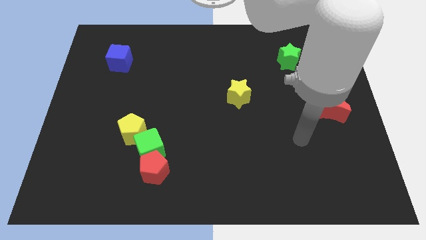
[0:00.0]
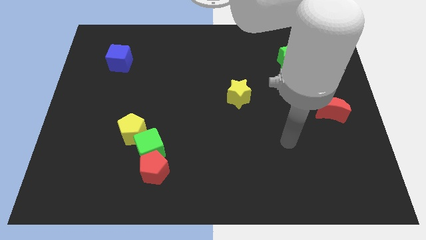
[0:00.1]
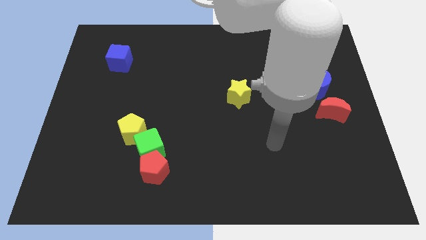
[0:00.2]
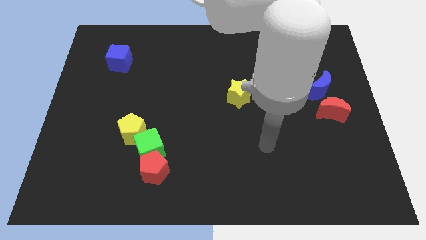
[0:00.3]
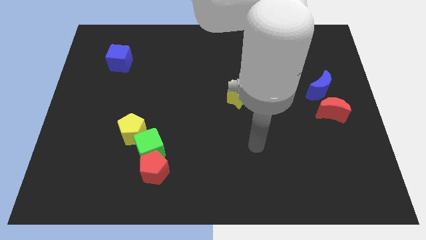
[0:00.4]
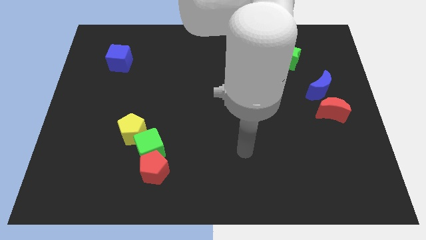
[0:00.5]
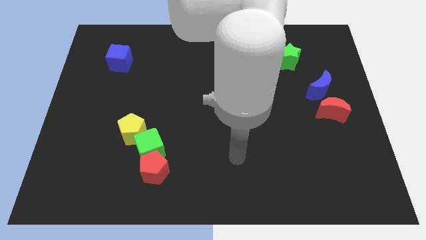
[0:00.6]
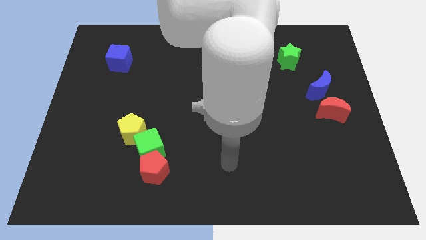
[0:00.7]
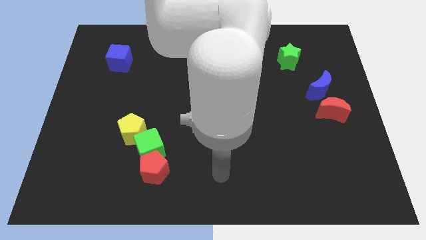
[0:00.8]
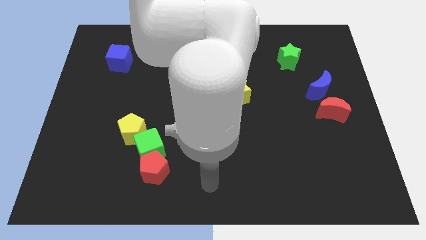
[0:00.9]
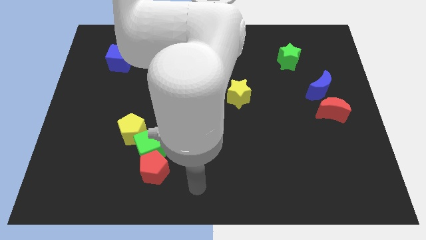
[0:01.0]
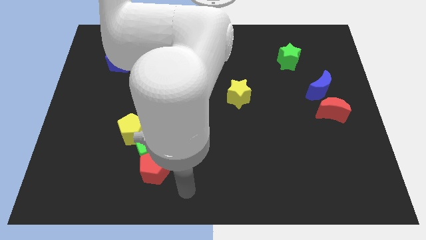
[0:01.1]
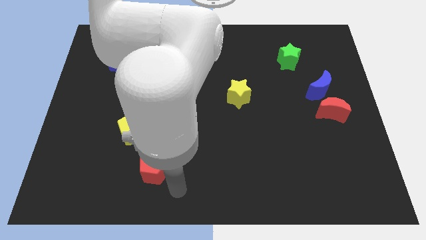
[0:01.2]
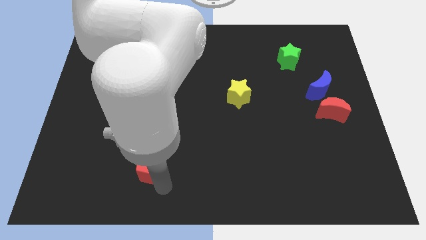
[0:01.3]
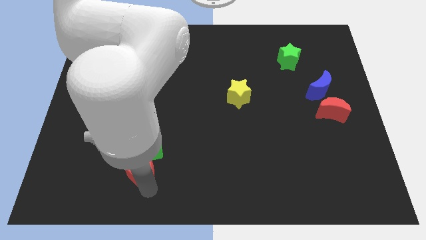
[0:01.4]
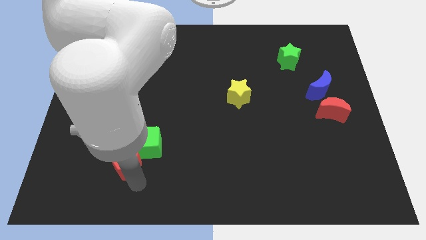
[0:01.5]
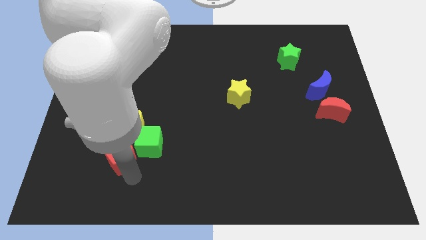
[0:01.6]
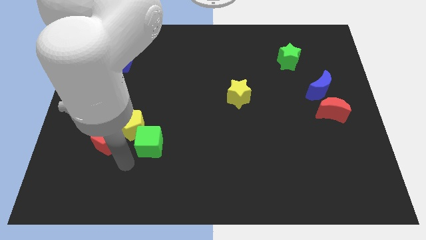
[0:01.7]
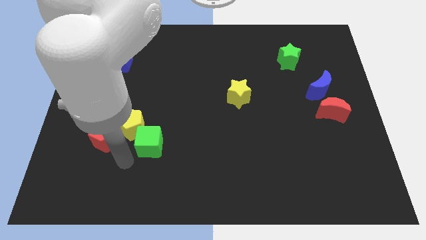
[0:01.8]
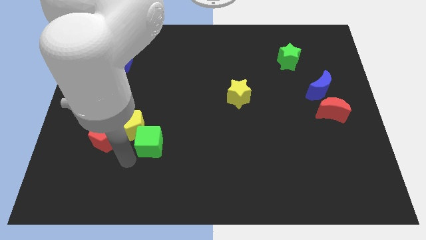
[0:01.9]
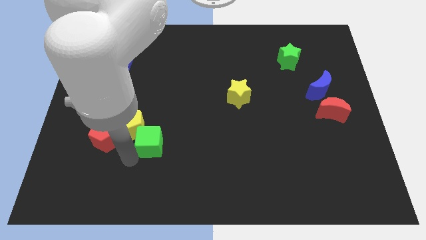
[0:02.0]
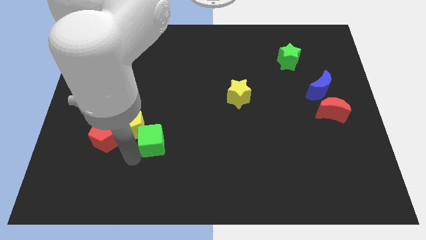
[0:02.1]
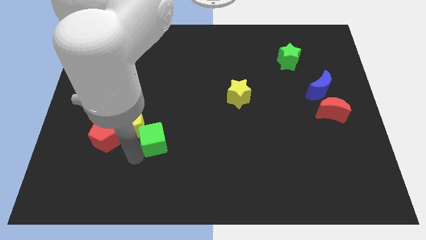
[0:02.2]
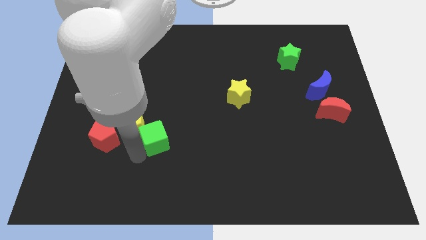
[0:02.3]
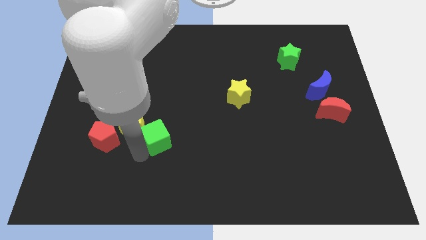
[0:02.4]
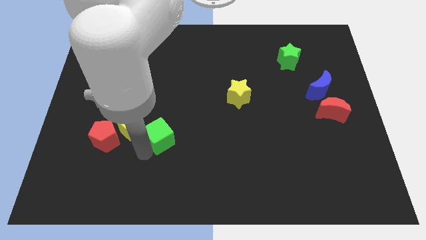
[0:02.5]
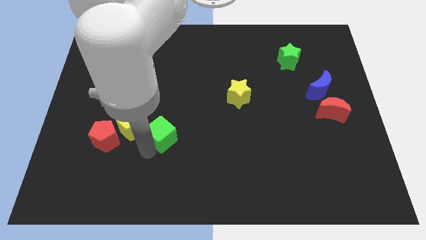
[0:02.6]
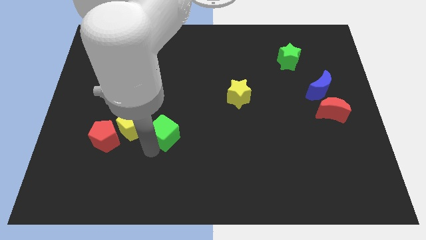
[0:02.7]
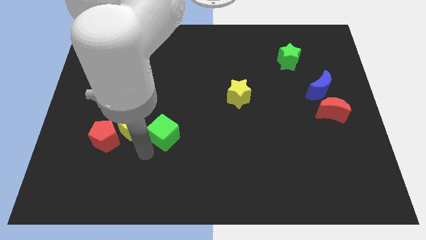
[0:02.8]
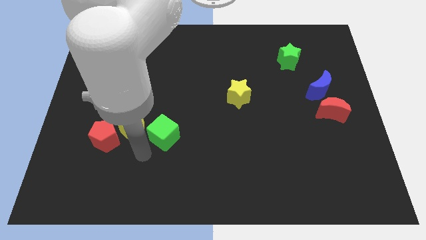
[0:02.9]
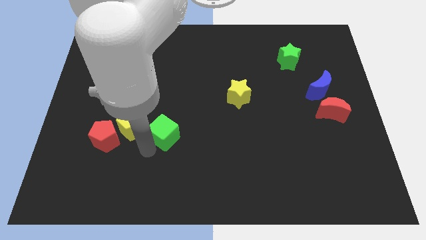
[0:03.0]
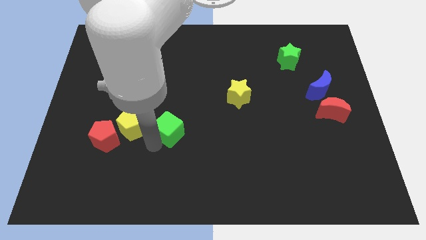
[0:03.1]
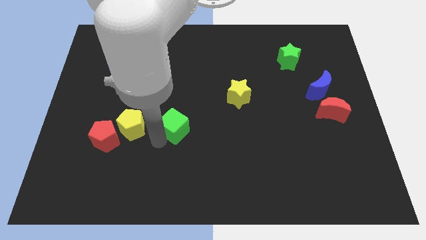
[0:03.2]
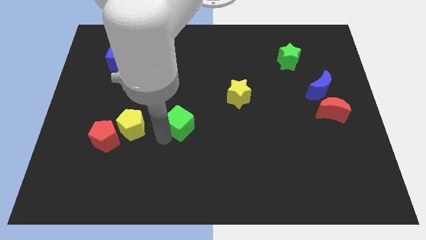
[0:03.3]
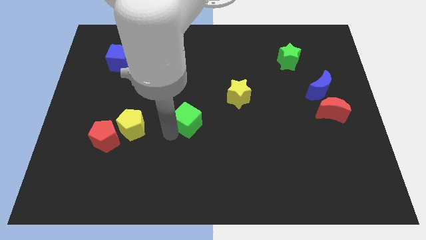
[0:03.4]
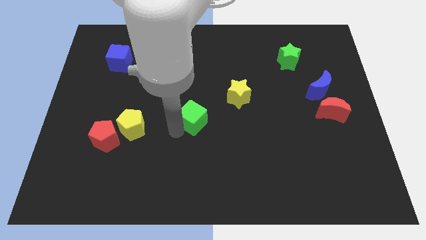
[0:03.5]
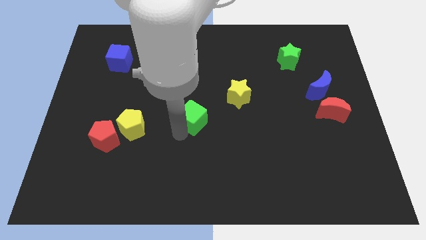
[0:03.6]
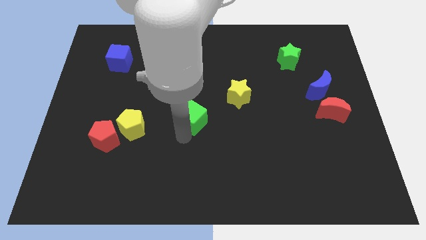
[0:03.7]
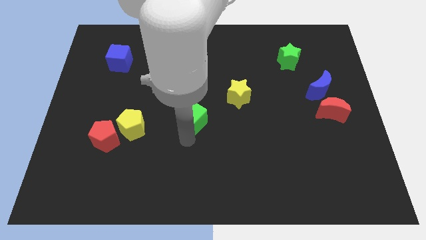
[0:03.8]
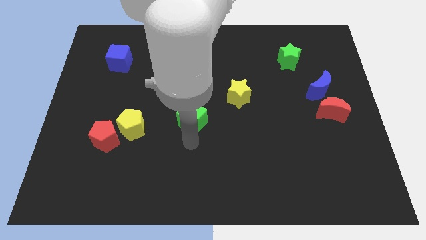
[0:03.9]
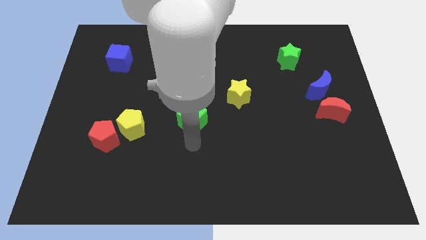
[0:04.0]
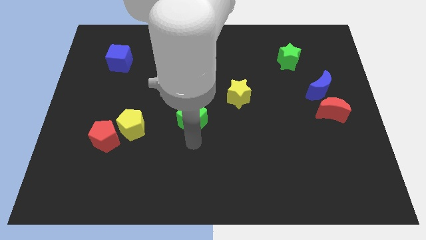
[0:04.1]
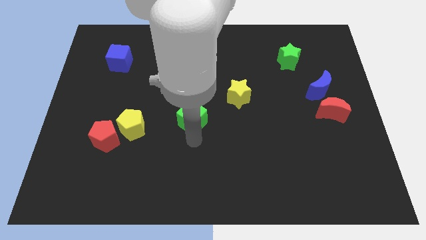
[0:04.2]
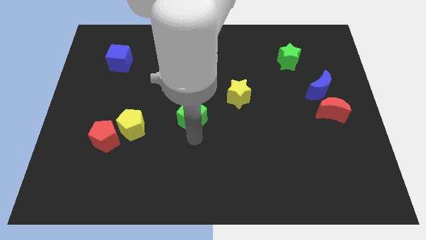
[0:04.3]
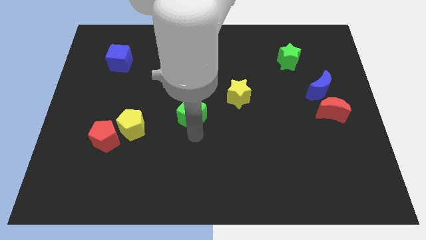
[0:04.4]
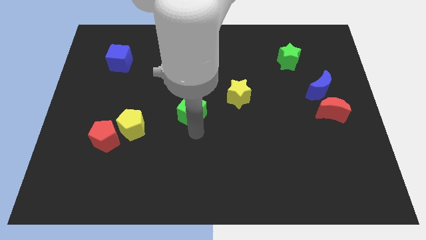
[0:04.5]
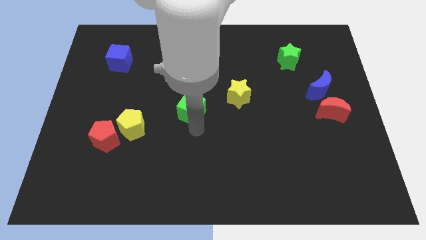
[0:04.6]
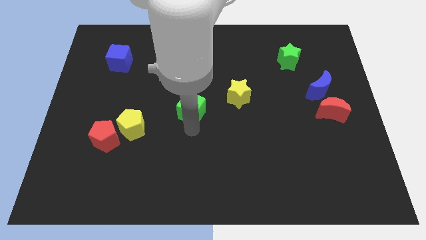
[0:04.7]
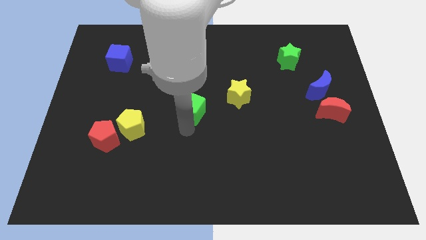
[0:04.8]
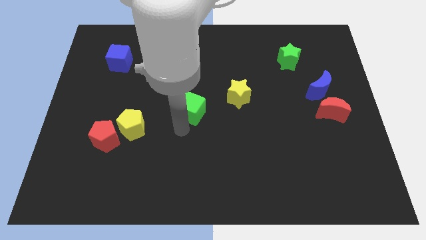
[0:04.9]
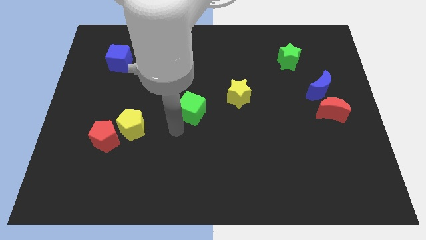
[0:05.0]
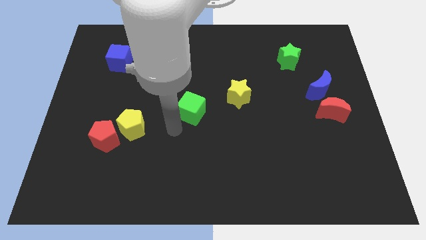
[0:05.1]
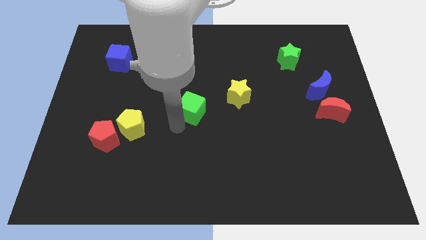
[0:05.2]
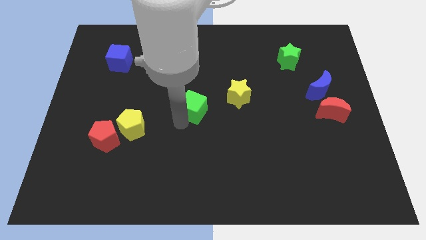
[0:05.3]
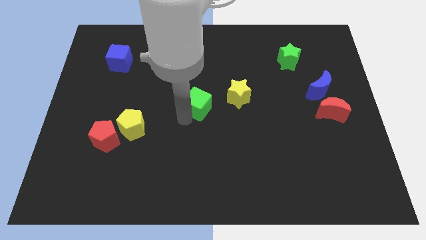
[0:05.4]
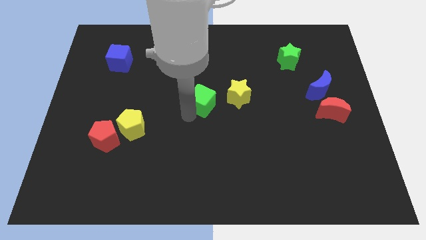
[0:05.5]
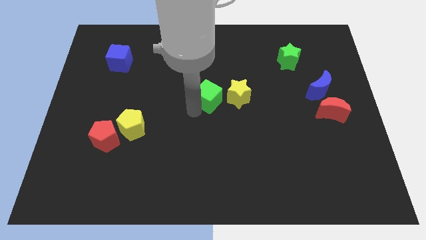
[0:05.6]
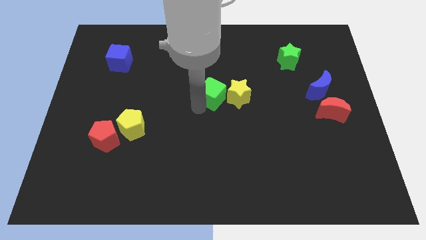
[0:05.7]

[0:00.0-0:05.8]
move the green cube up and then right

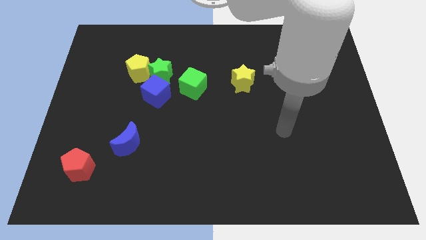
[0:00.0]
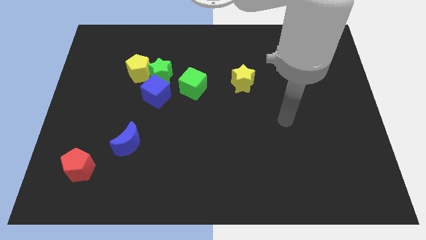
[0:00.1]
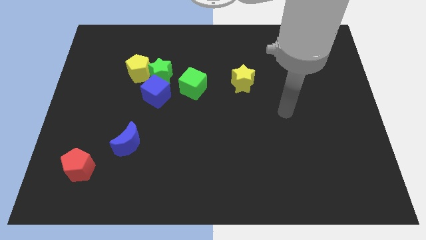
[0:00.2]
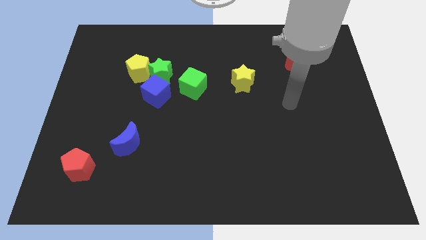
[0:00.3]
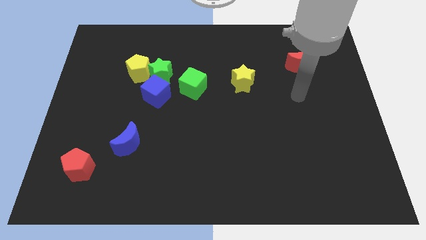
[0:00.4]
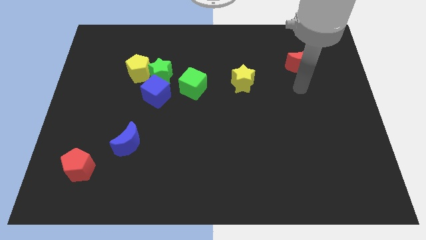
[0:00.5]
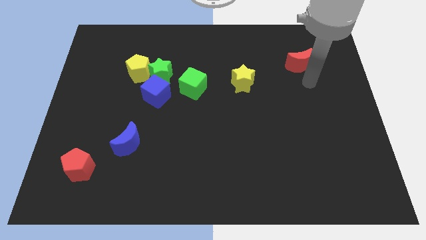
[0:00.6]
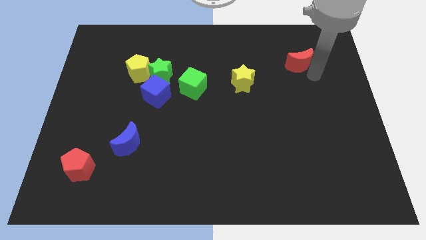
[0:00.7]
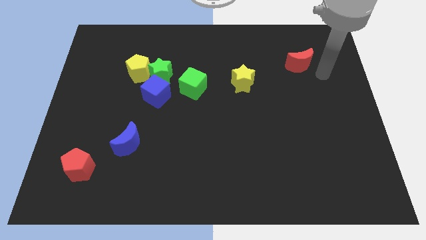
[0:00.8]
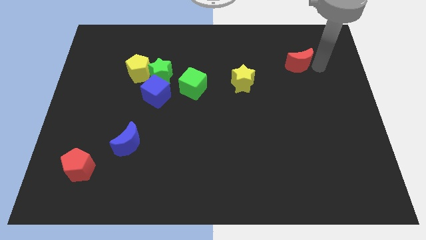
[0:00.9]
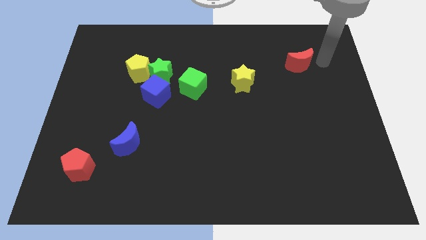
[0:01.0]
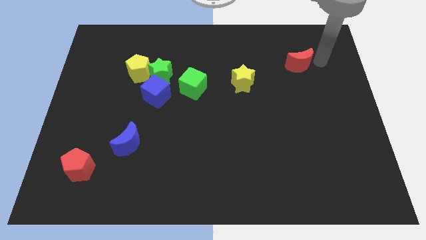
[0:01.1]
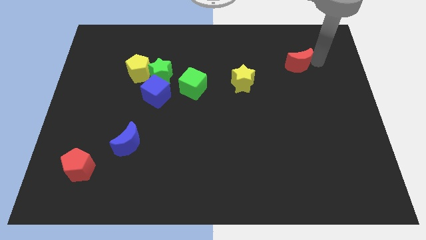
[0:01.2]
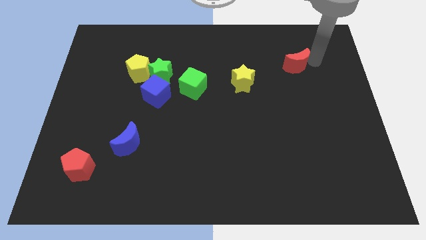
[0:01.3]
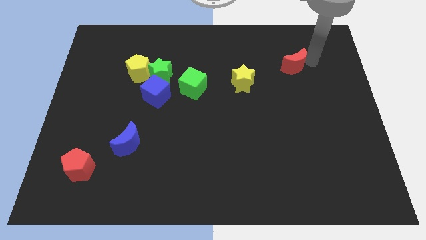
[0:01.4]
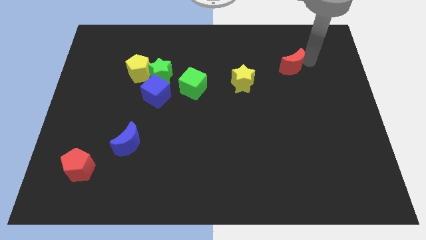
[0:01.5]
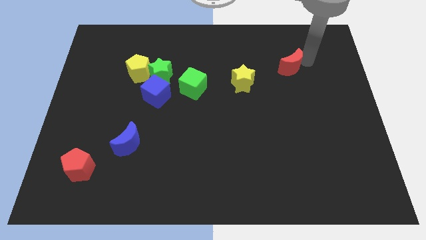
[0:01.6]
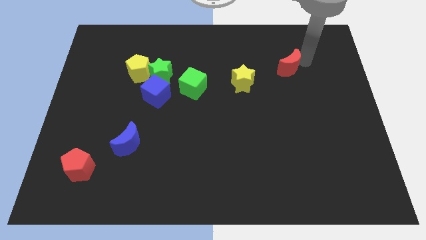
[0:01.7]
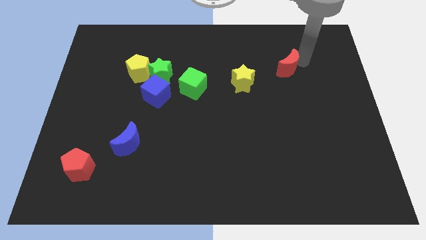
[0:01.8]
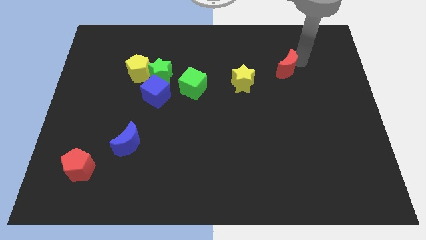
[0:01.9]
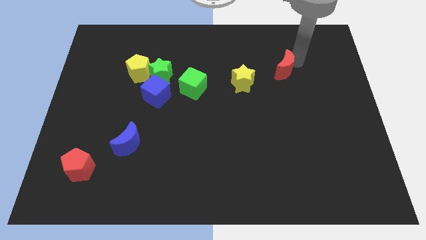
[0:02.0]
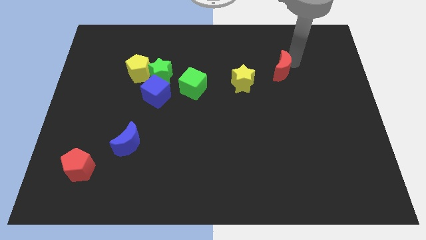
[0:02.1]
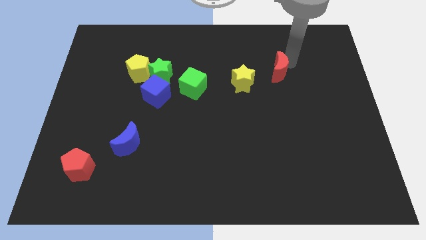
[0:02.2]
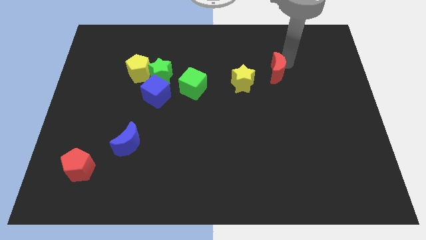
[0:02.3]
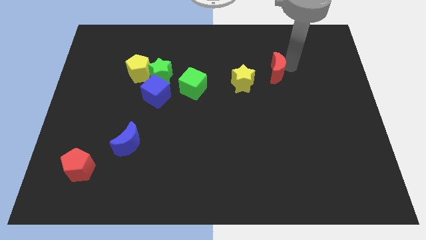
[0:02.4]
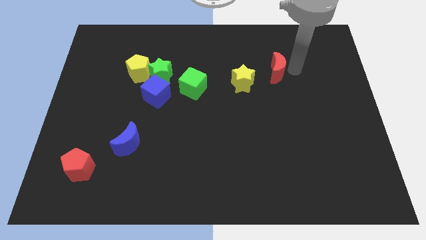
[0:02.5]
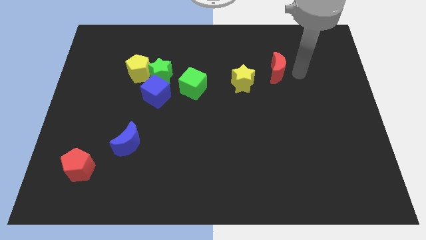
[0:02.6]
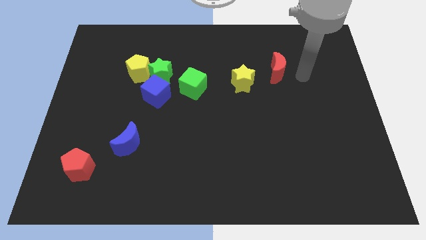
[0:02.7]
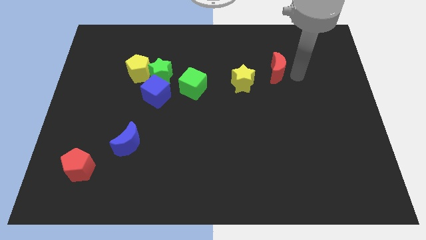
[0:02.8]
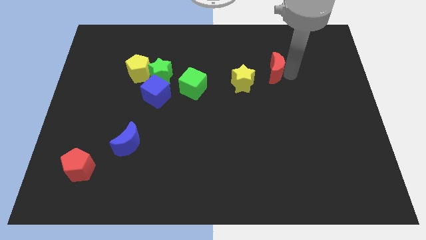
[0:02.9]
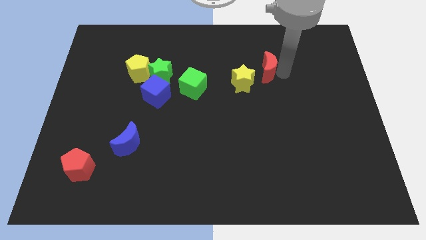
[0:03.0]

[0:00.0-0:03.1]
slide the red moon slightly to the left
